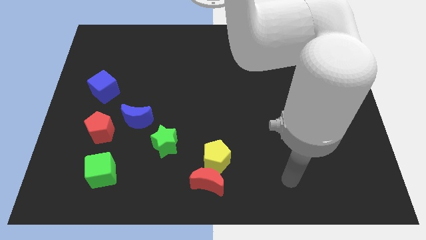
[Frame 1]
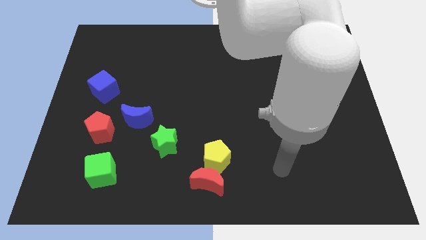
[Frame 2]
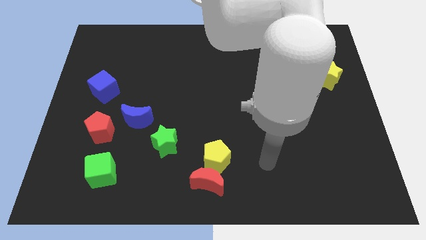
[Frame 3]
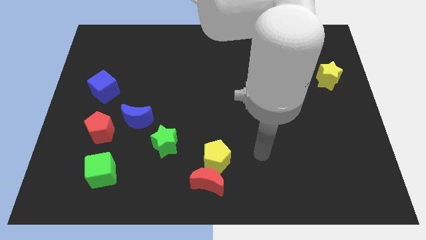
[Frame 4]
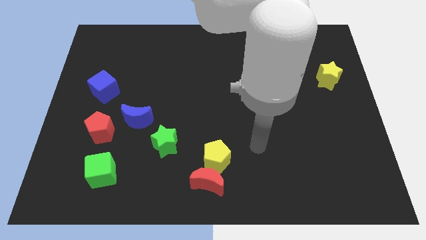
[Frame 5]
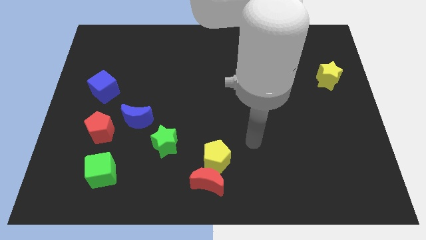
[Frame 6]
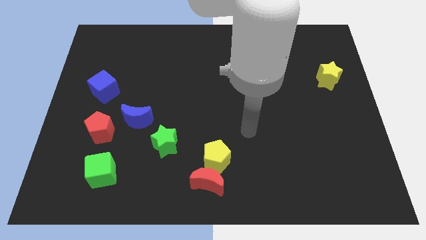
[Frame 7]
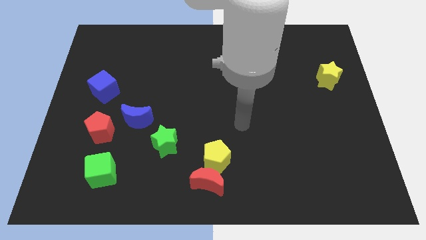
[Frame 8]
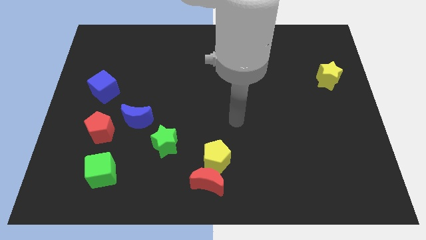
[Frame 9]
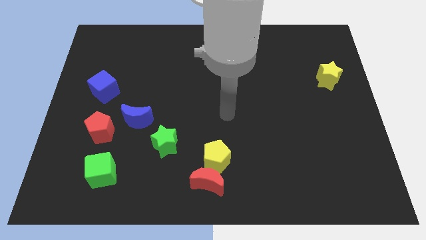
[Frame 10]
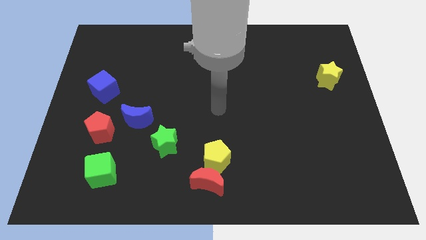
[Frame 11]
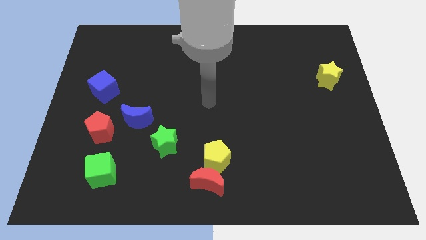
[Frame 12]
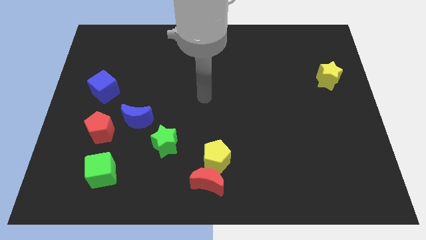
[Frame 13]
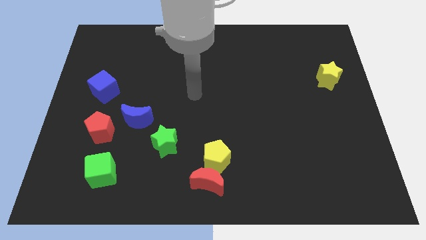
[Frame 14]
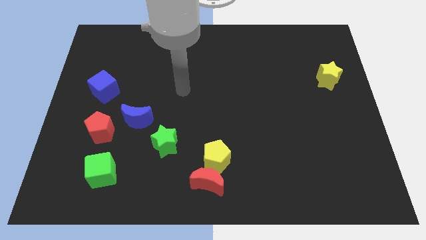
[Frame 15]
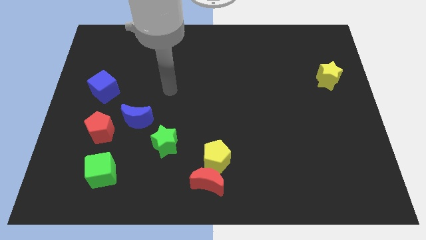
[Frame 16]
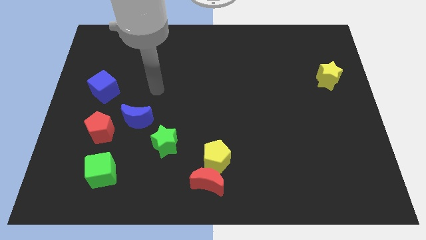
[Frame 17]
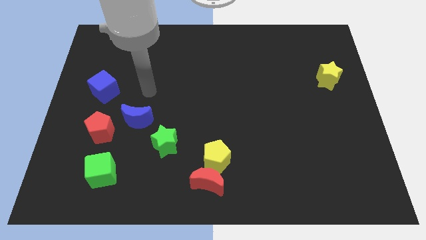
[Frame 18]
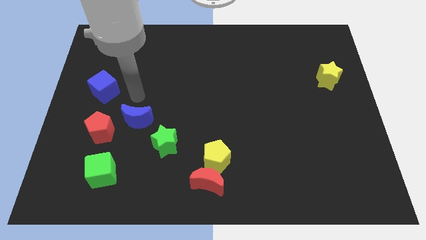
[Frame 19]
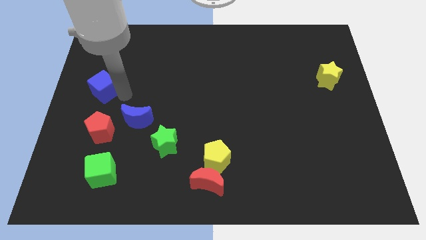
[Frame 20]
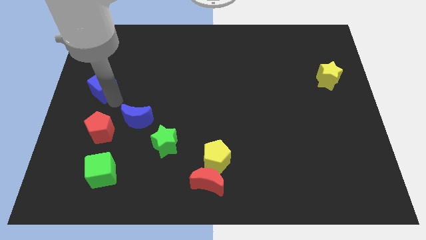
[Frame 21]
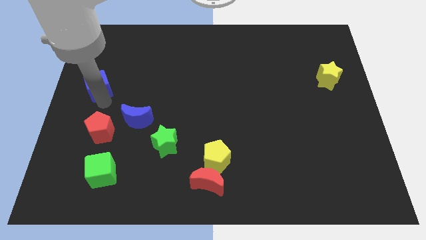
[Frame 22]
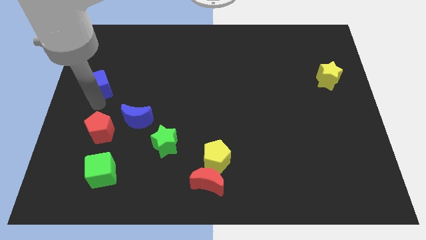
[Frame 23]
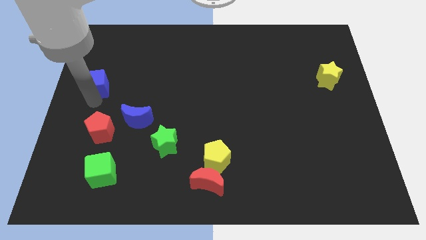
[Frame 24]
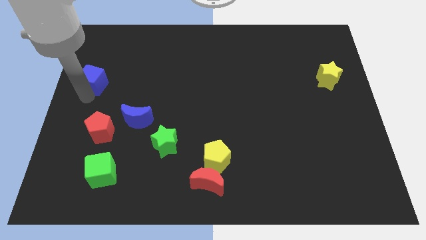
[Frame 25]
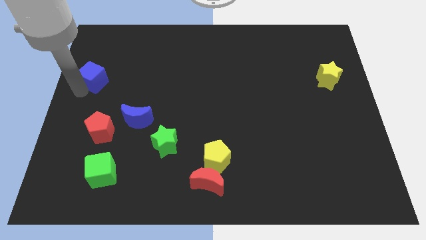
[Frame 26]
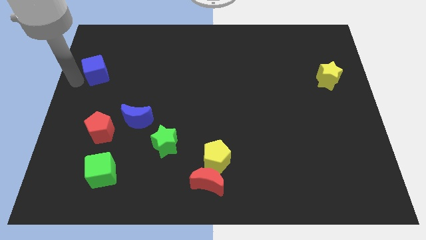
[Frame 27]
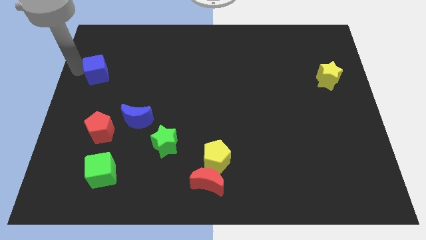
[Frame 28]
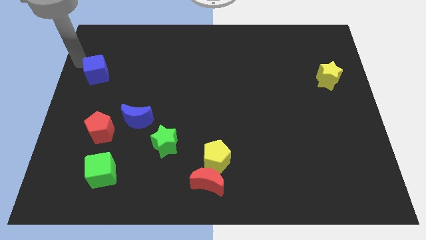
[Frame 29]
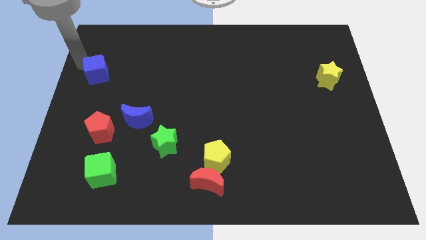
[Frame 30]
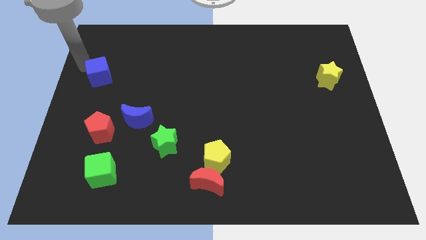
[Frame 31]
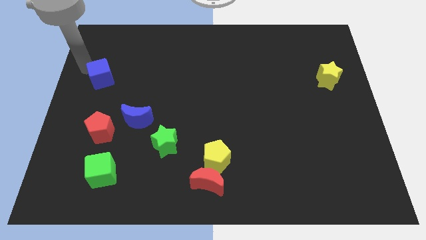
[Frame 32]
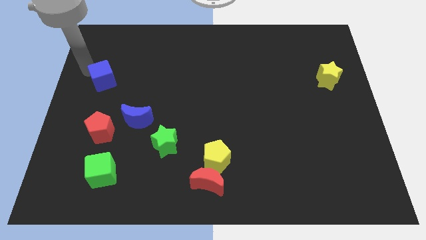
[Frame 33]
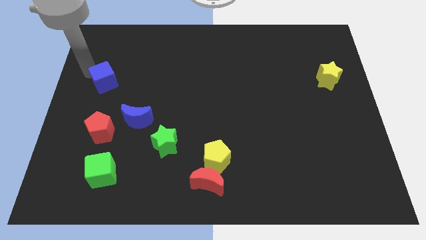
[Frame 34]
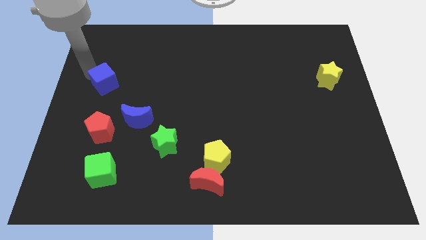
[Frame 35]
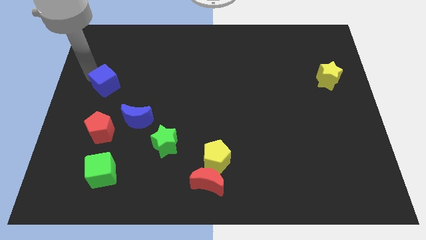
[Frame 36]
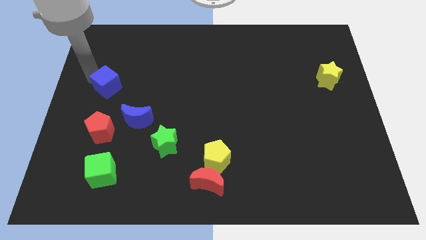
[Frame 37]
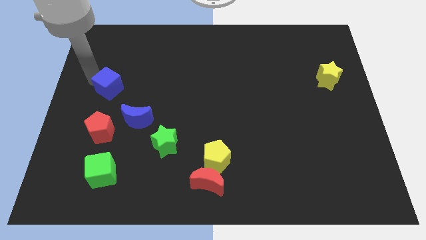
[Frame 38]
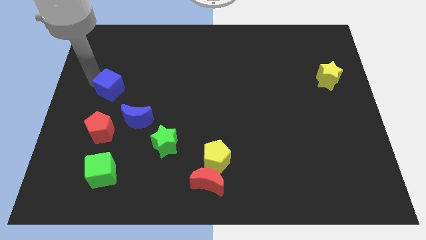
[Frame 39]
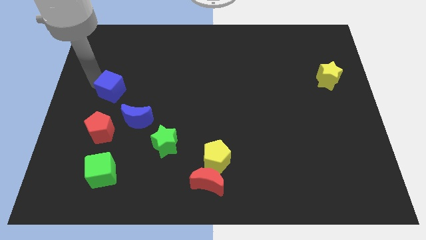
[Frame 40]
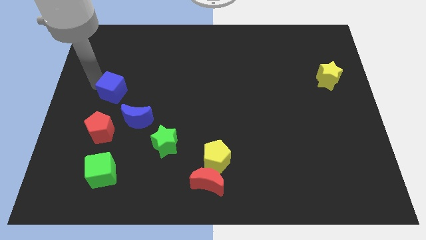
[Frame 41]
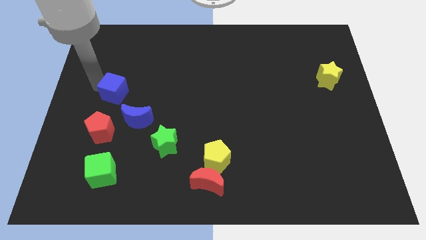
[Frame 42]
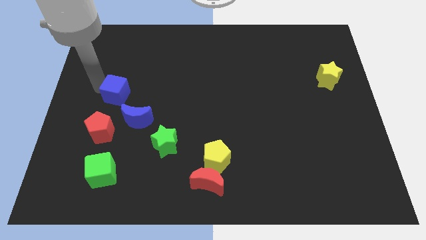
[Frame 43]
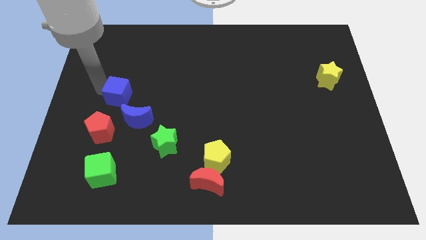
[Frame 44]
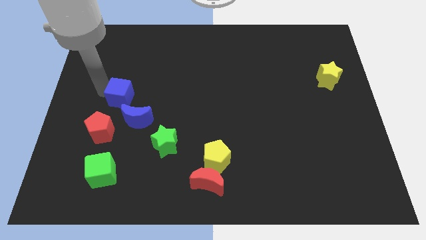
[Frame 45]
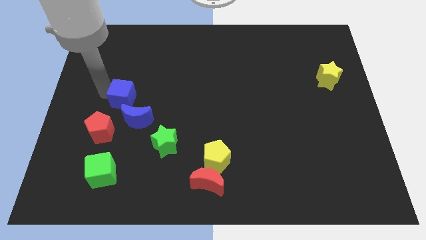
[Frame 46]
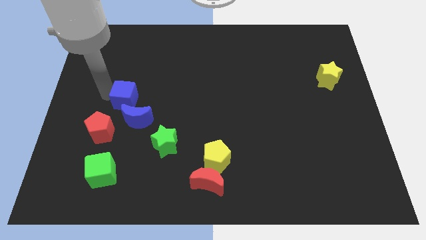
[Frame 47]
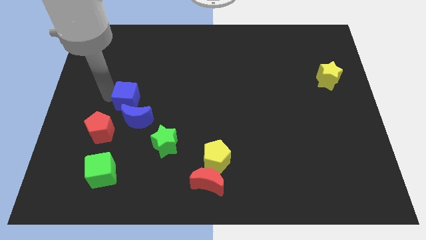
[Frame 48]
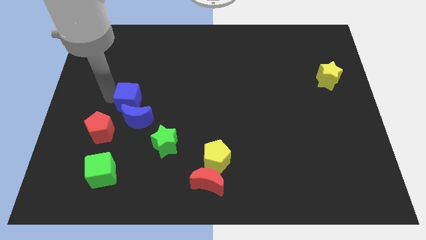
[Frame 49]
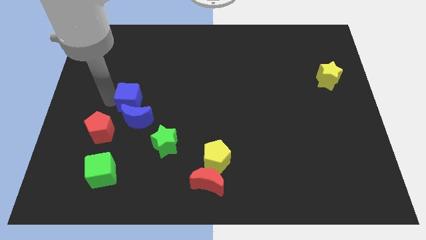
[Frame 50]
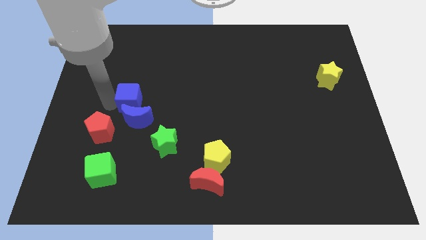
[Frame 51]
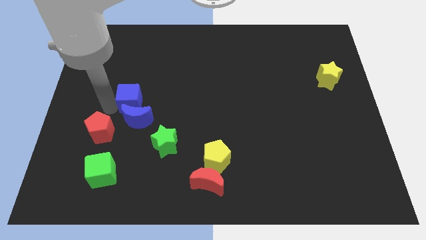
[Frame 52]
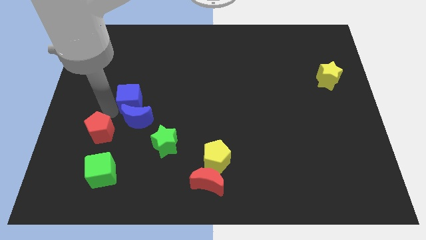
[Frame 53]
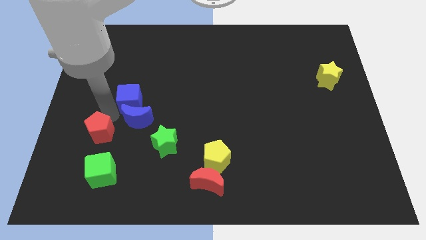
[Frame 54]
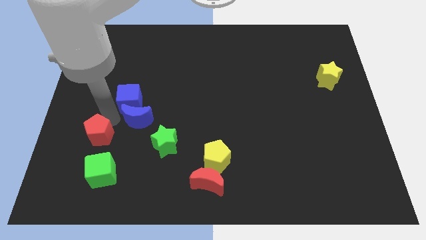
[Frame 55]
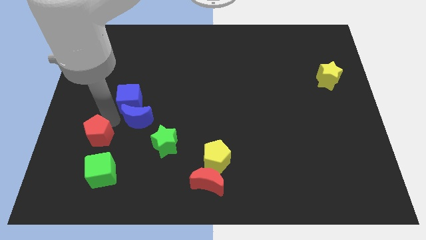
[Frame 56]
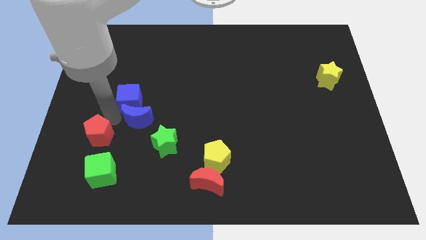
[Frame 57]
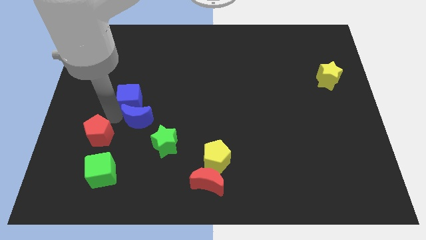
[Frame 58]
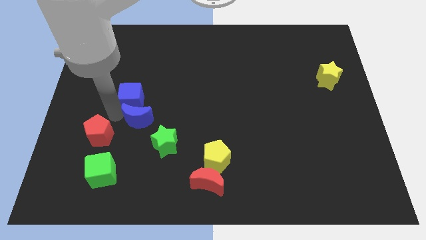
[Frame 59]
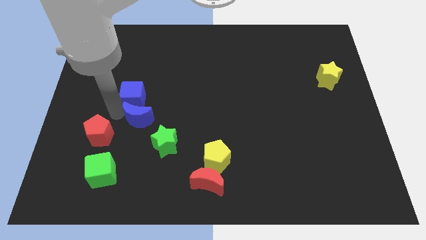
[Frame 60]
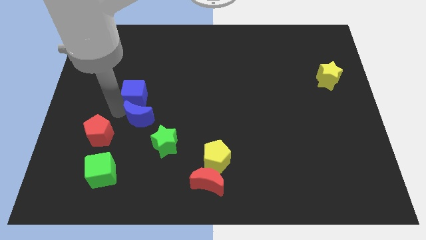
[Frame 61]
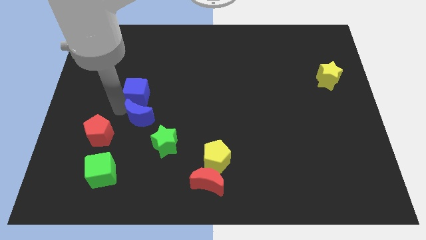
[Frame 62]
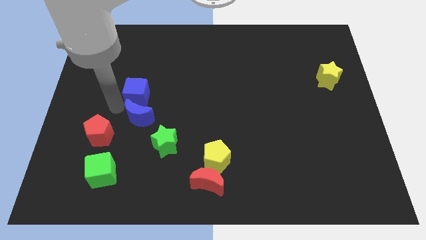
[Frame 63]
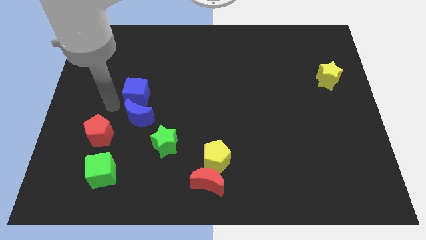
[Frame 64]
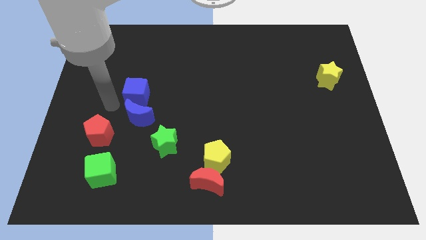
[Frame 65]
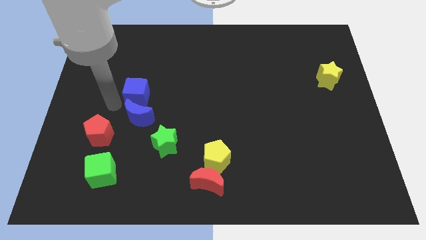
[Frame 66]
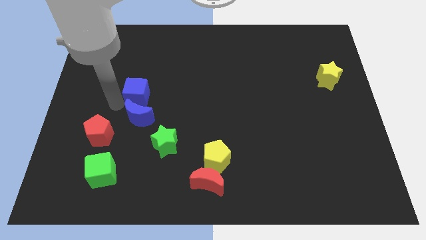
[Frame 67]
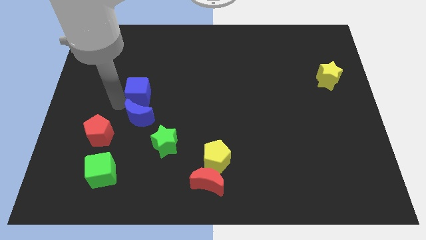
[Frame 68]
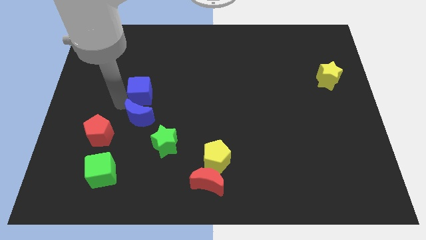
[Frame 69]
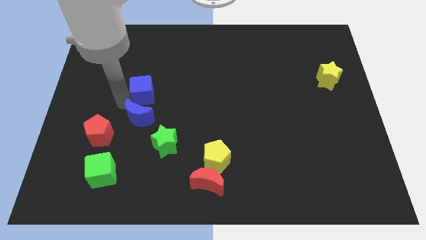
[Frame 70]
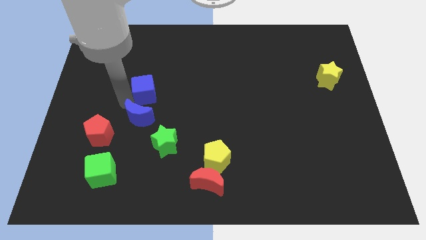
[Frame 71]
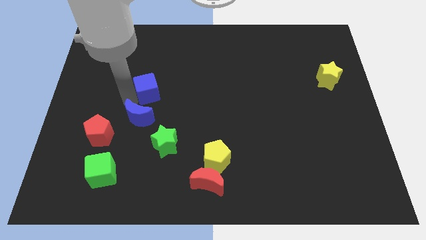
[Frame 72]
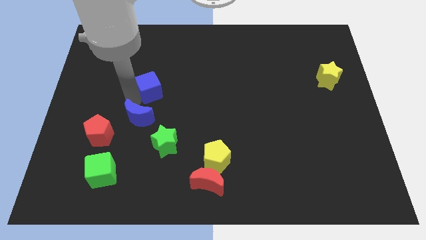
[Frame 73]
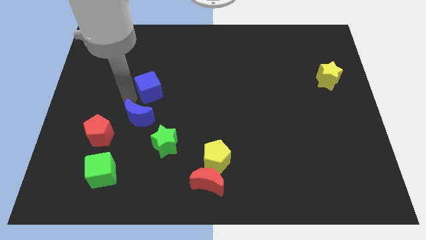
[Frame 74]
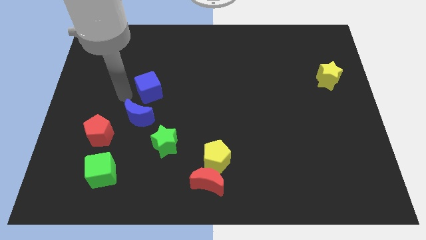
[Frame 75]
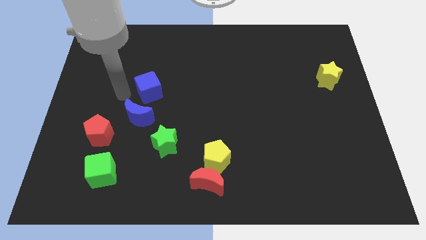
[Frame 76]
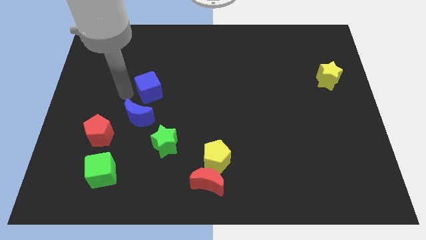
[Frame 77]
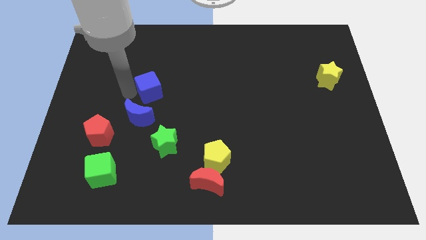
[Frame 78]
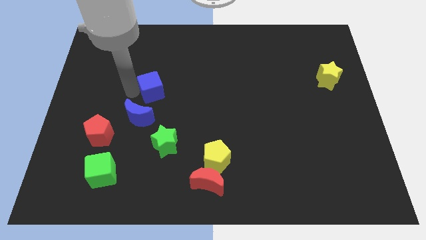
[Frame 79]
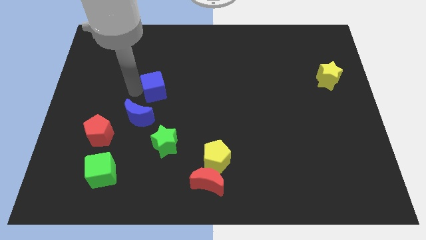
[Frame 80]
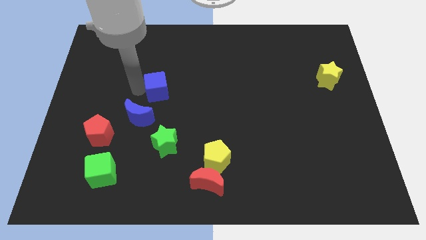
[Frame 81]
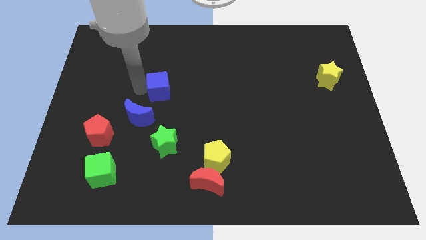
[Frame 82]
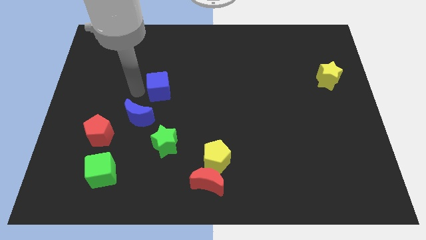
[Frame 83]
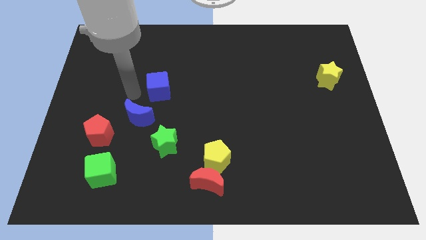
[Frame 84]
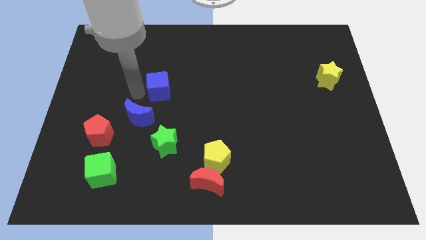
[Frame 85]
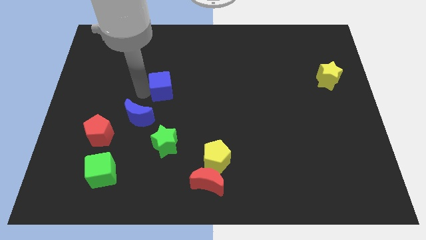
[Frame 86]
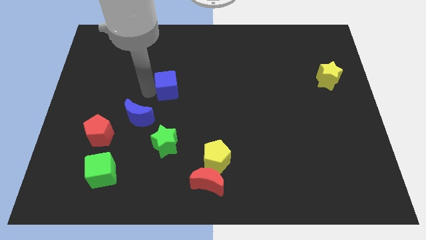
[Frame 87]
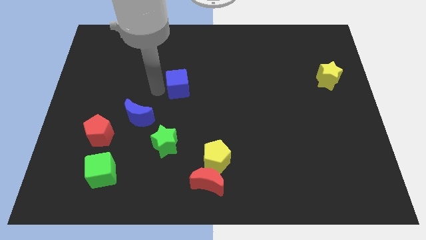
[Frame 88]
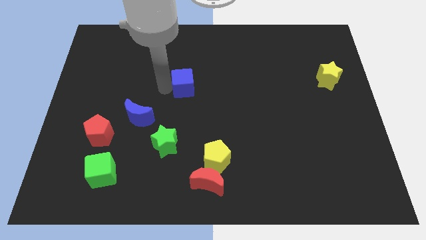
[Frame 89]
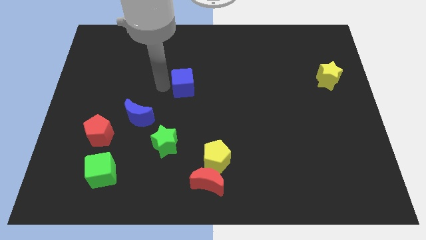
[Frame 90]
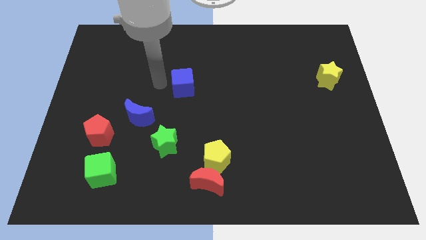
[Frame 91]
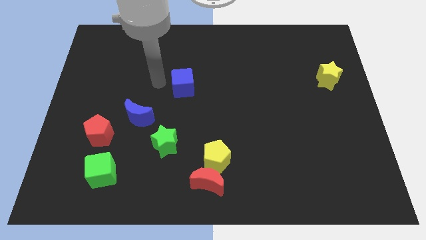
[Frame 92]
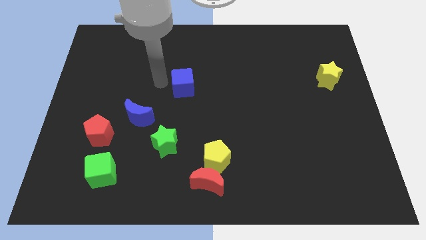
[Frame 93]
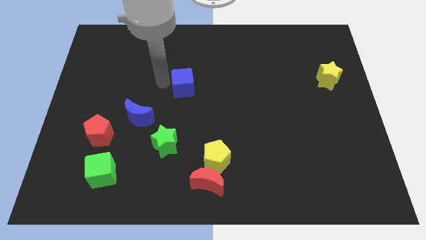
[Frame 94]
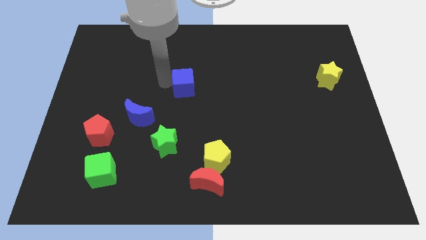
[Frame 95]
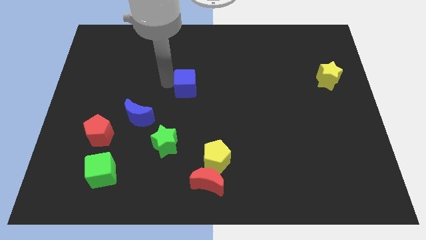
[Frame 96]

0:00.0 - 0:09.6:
move the blue cube right
